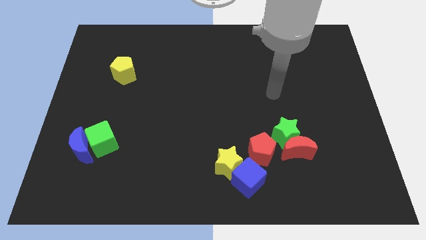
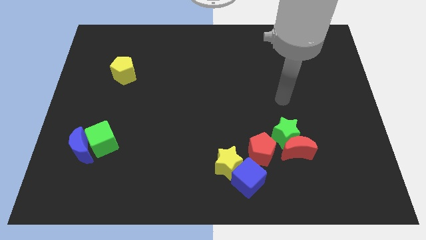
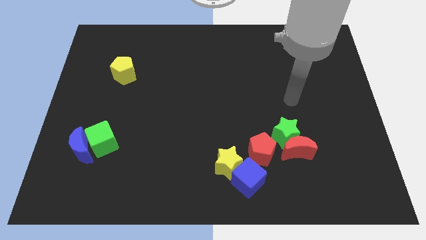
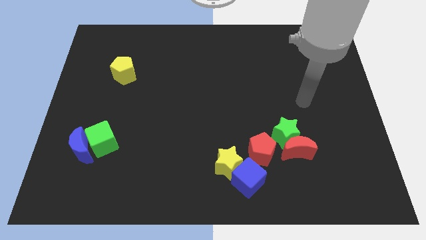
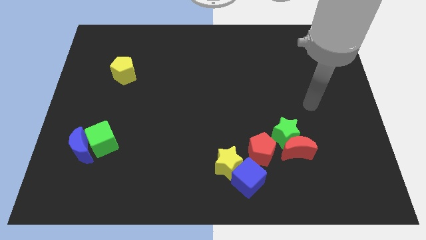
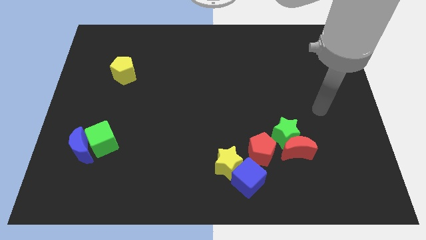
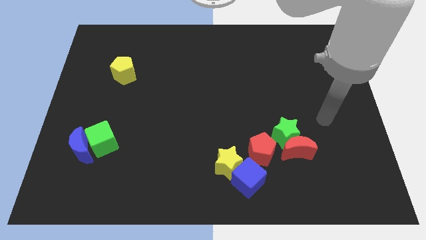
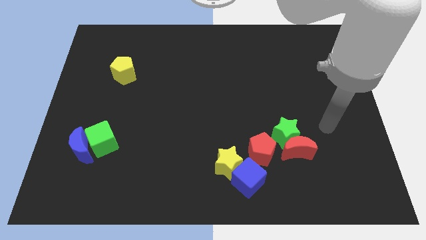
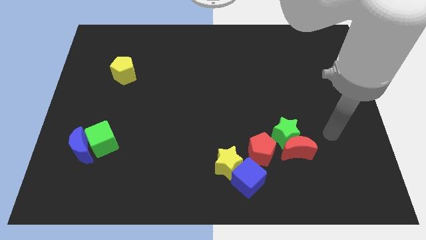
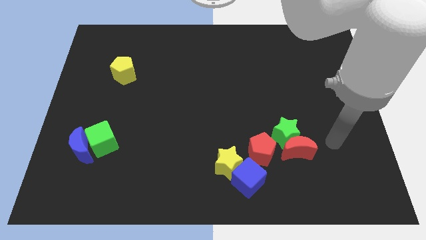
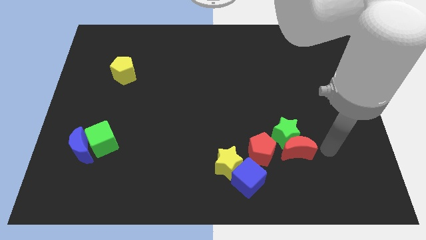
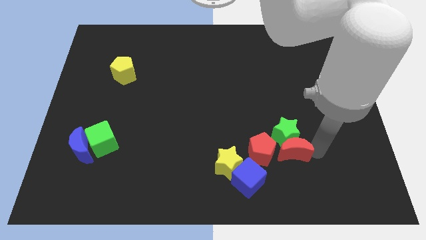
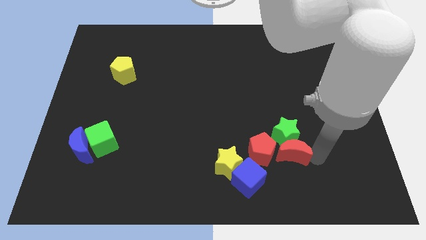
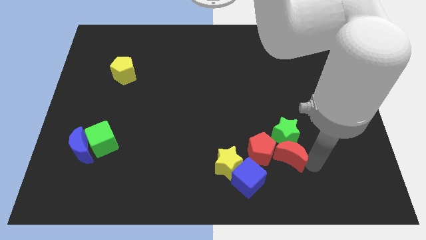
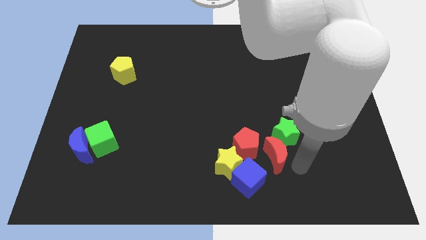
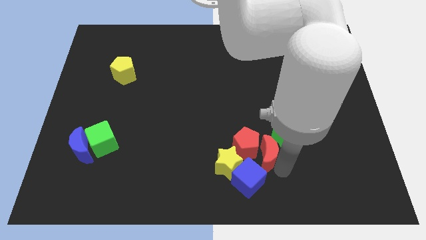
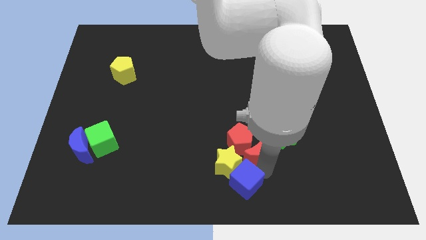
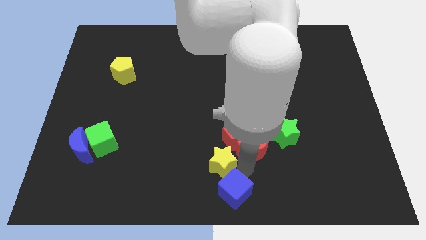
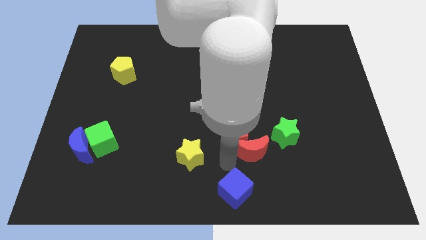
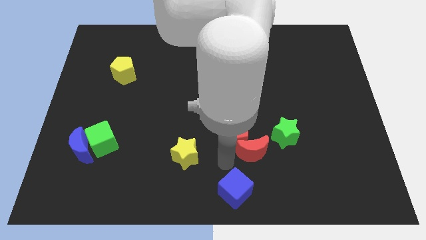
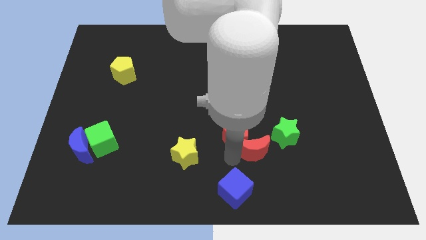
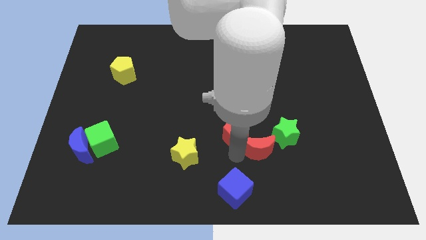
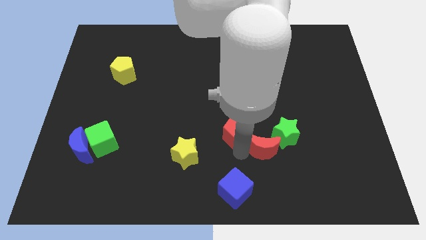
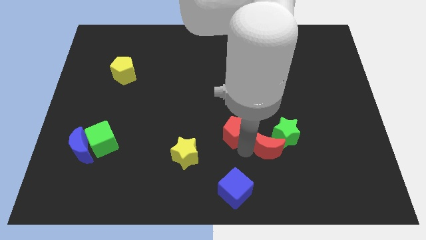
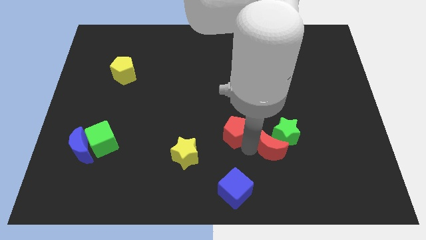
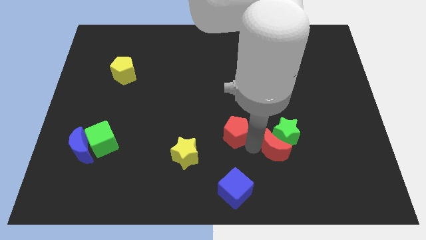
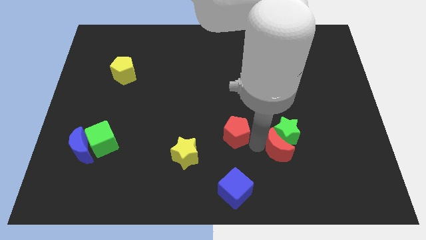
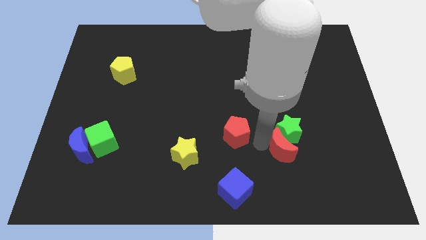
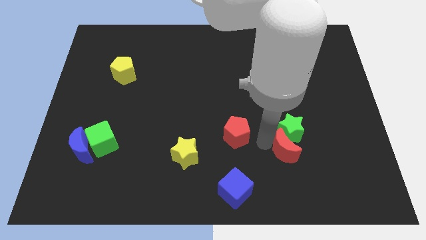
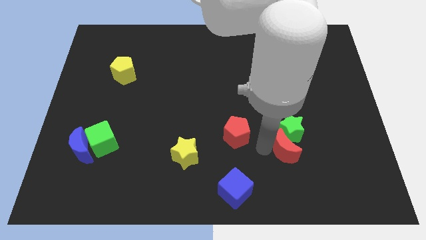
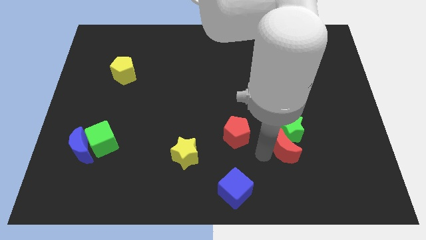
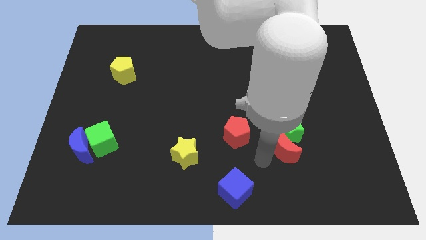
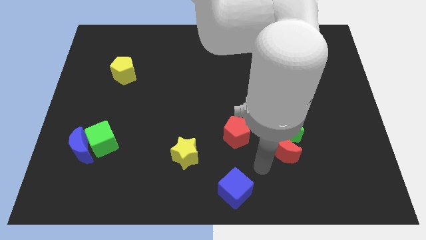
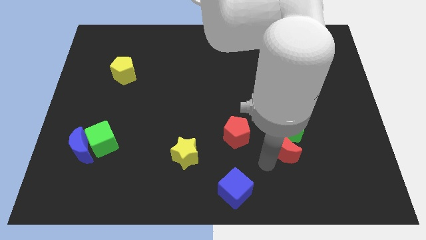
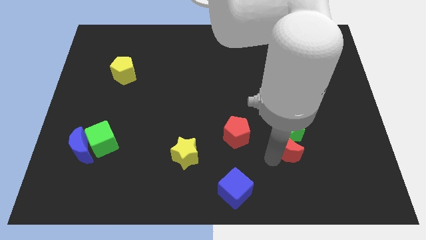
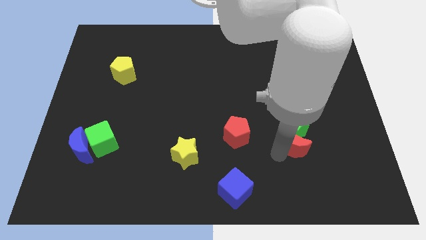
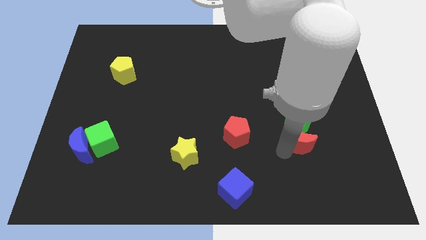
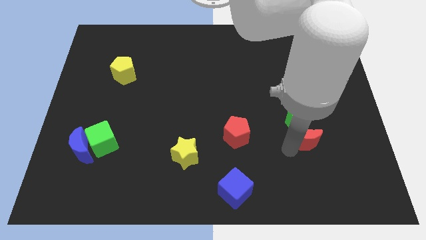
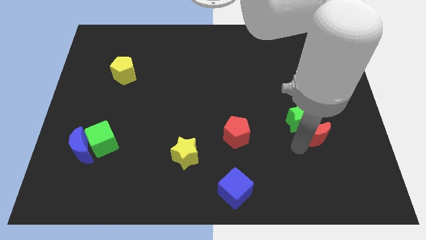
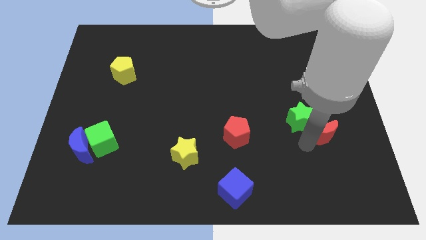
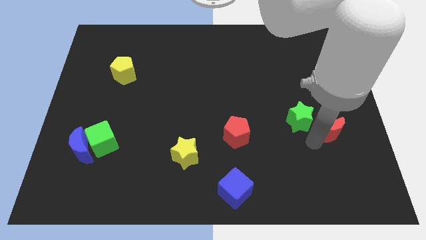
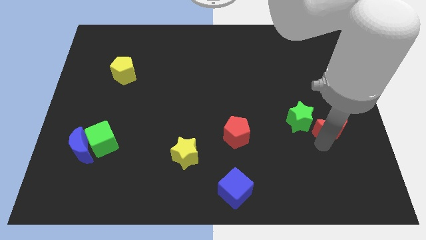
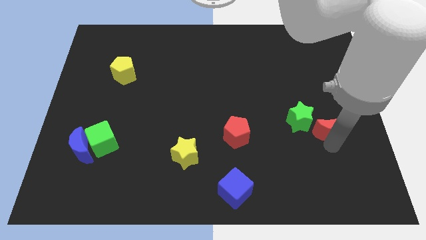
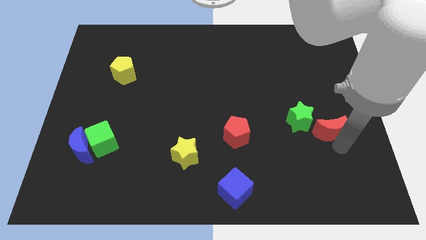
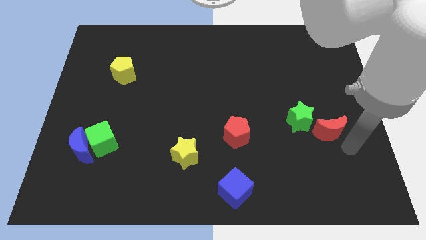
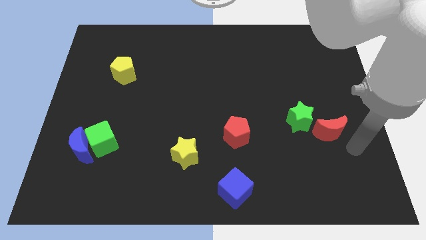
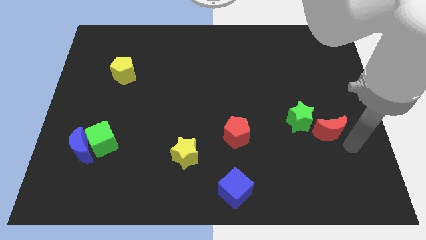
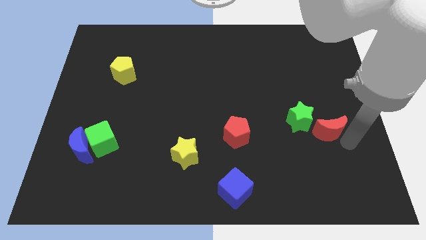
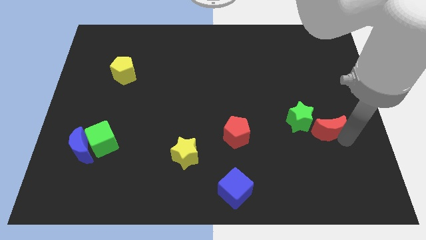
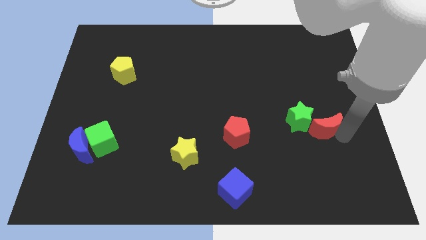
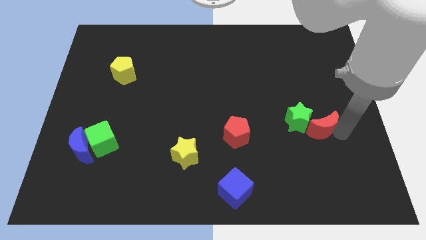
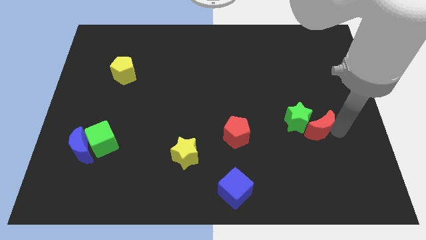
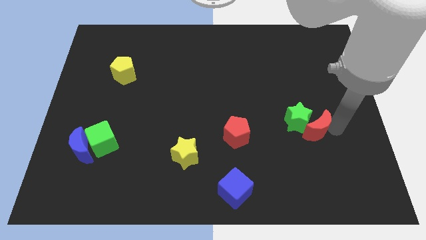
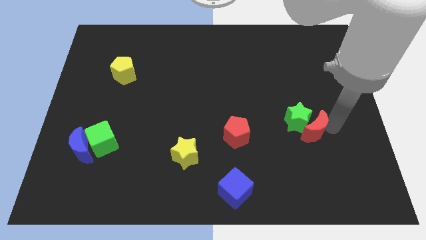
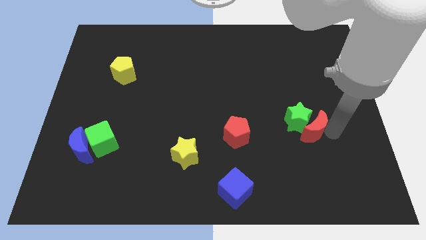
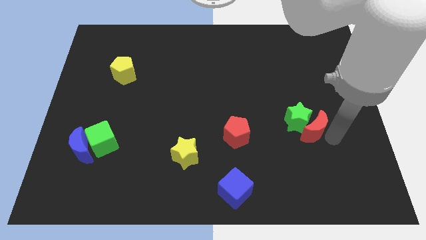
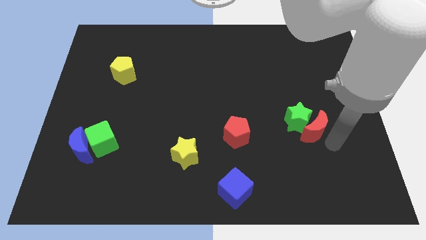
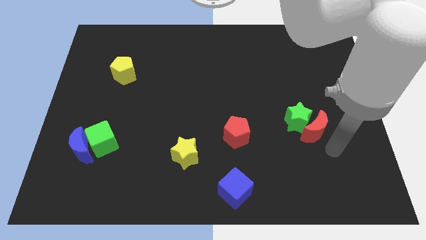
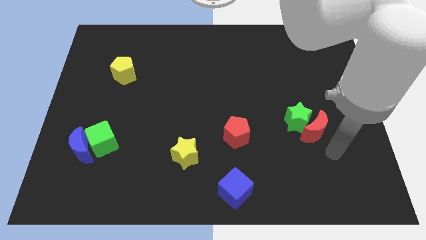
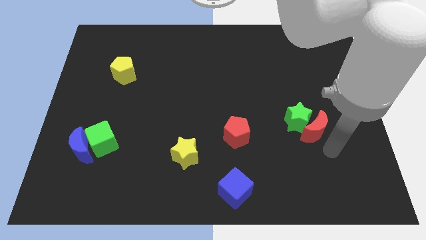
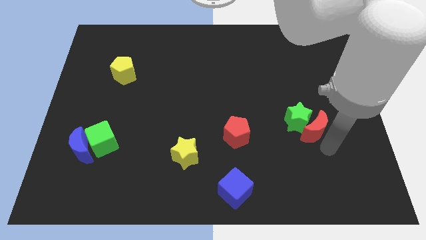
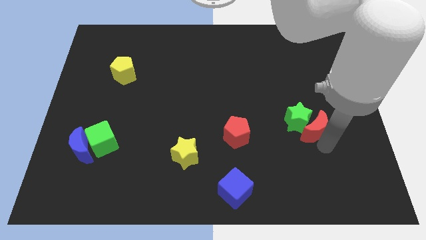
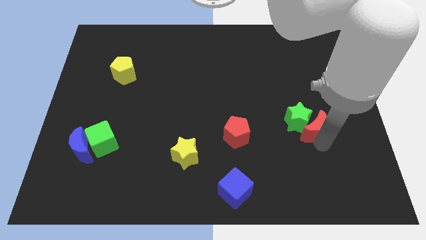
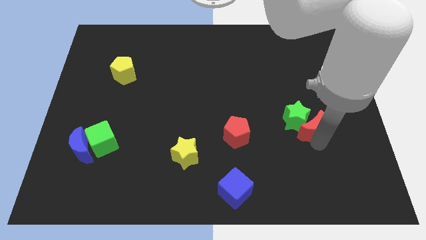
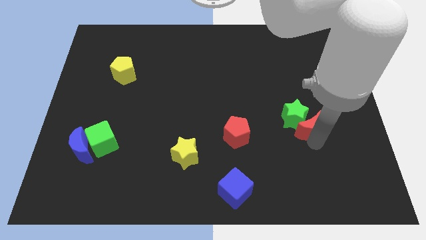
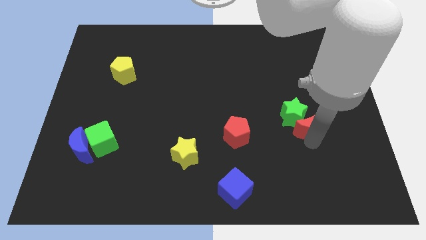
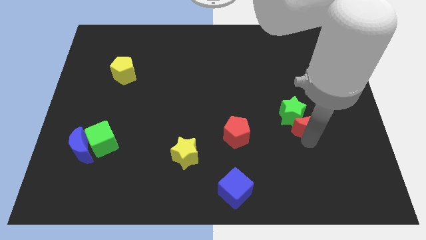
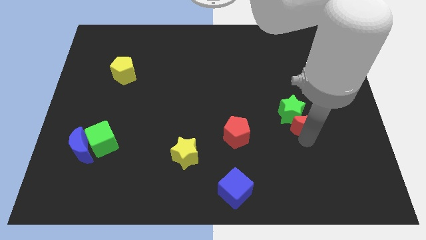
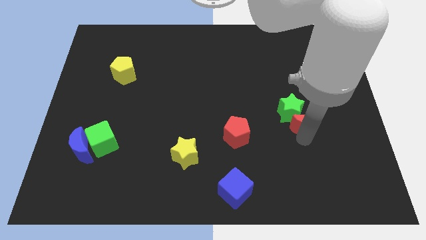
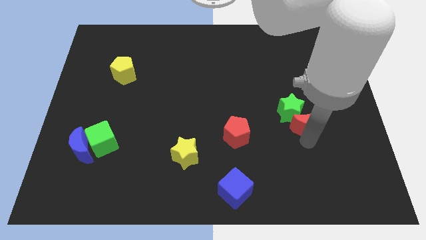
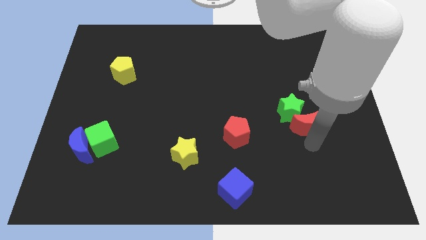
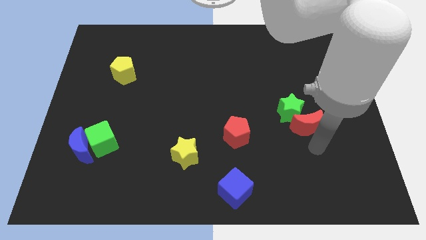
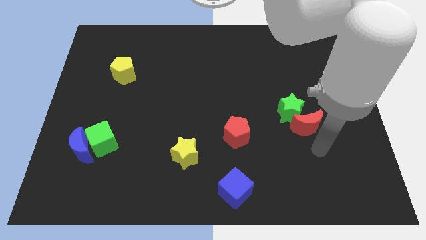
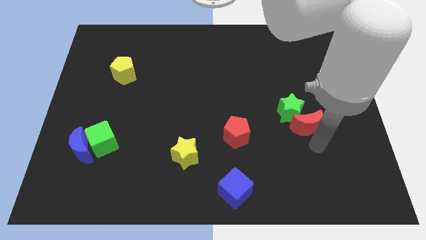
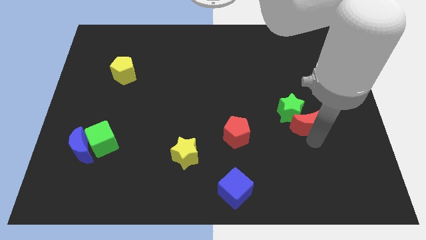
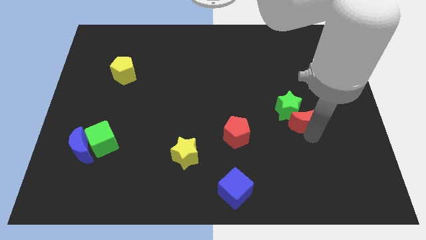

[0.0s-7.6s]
slightly slide the red moon upwards

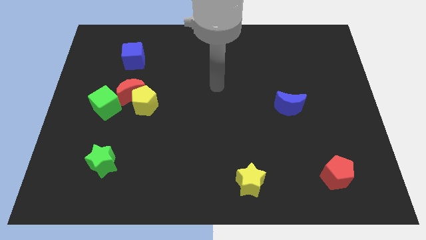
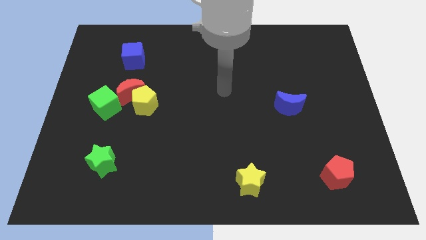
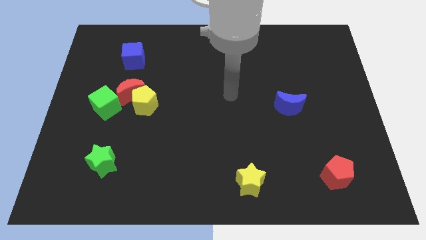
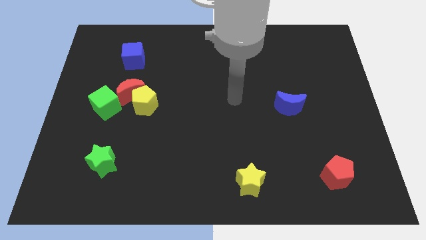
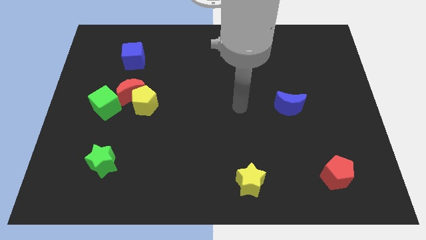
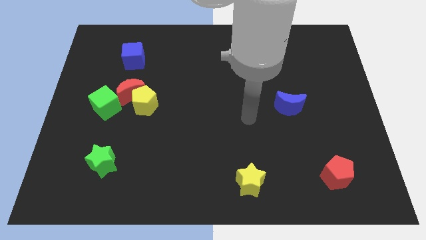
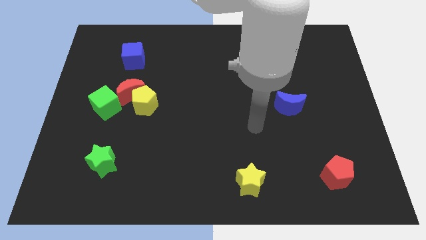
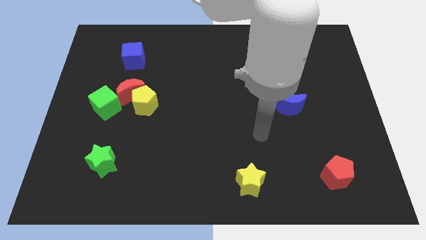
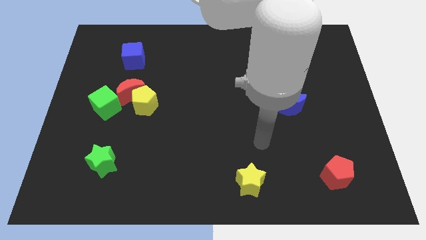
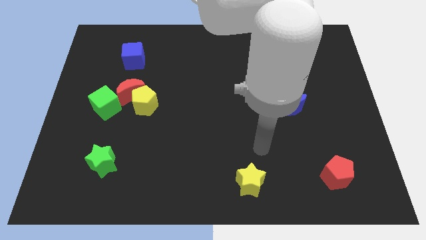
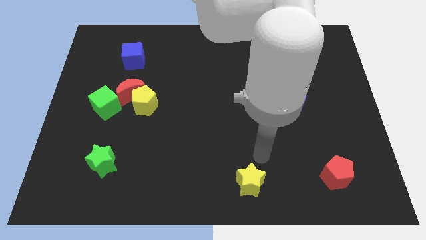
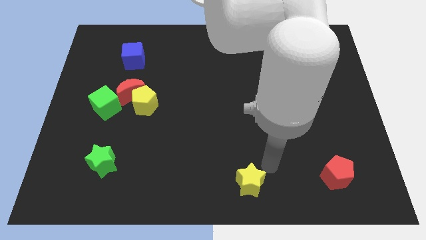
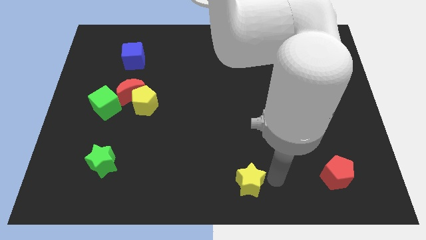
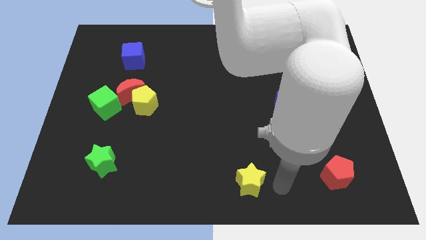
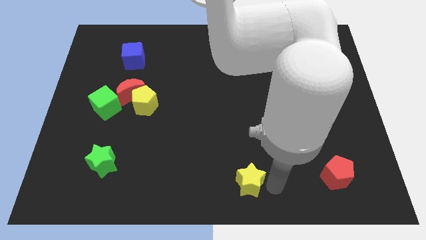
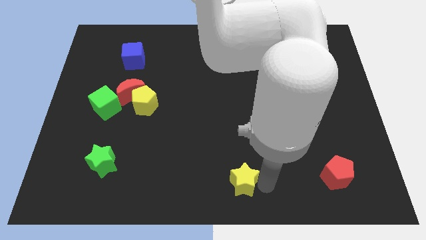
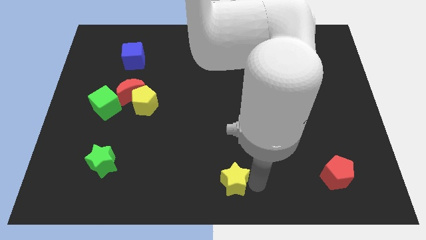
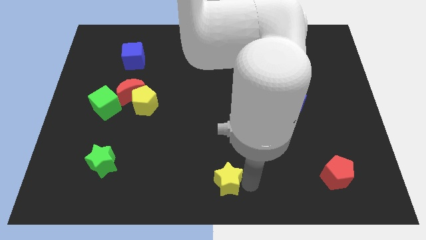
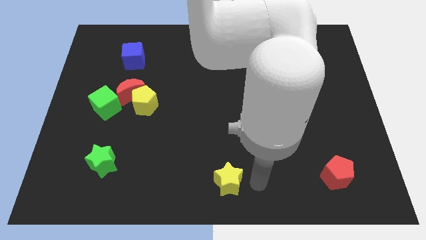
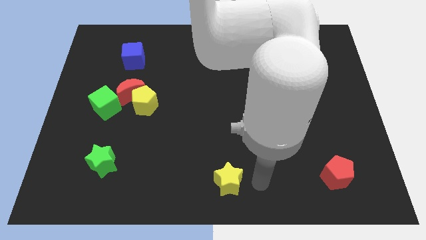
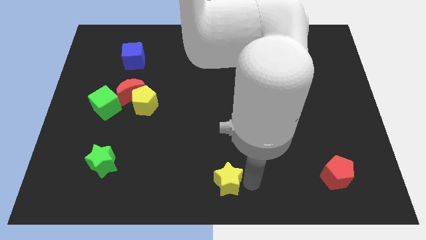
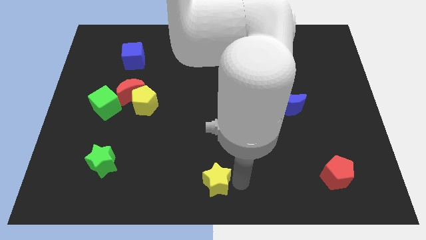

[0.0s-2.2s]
slide the yellow star a little to the left
